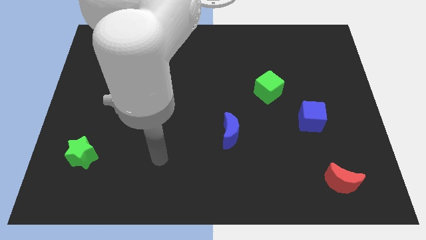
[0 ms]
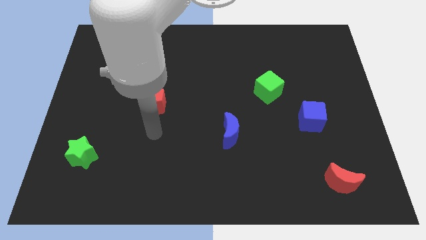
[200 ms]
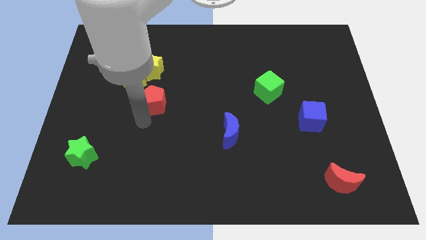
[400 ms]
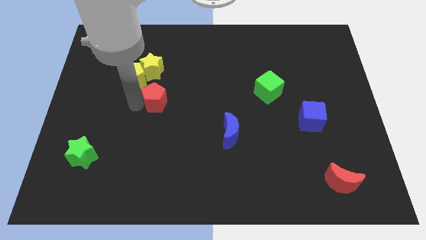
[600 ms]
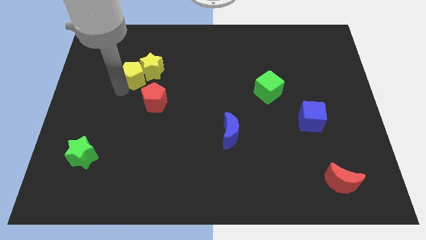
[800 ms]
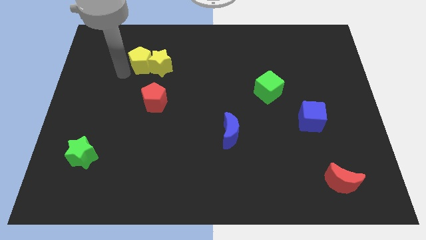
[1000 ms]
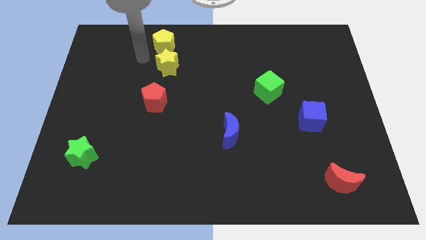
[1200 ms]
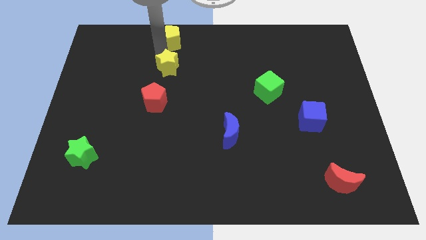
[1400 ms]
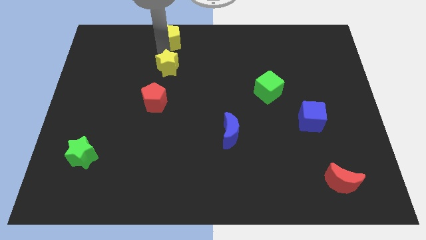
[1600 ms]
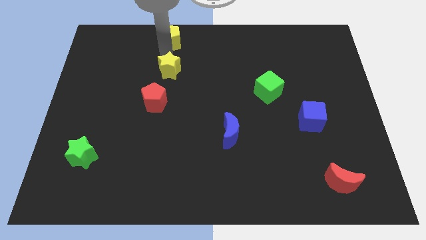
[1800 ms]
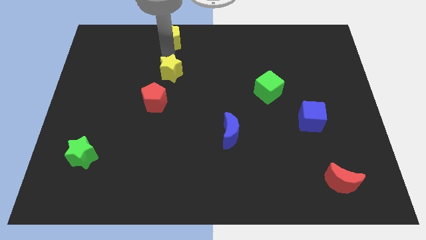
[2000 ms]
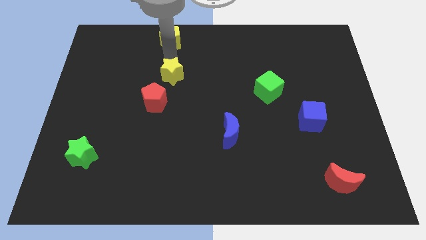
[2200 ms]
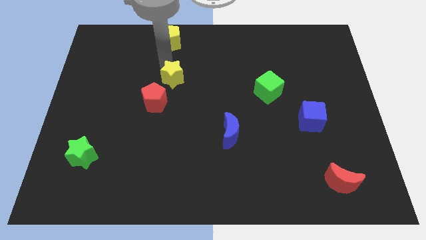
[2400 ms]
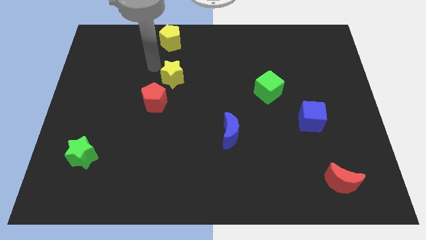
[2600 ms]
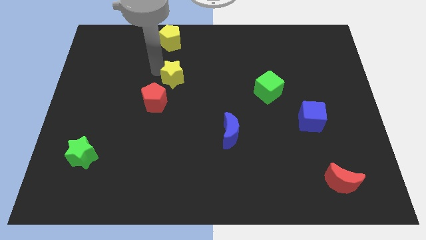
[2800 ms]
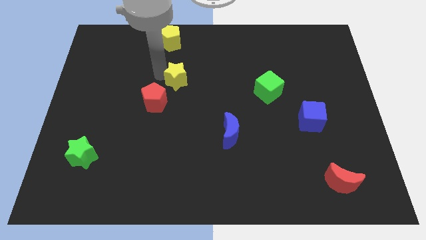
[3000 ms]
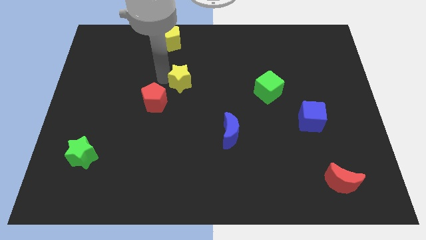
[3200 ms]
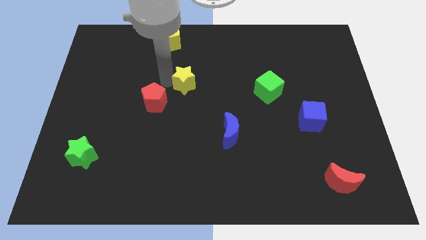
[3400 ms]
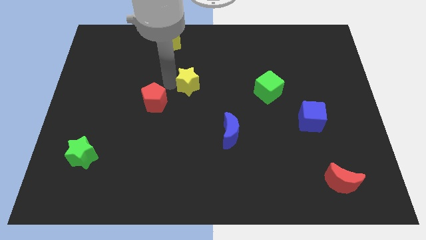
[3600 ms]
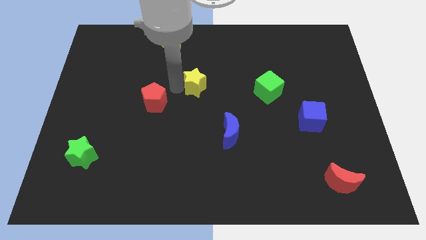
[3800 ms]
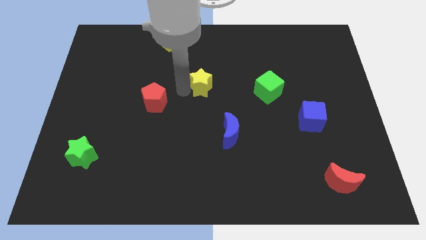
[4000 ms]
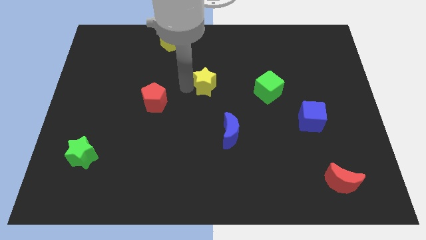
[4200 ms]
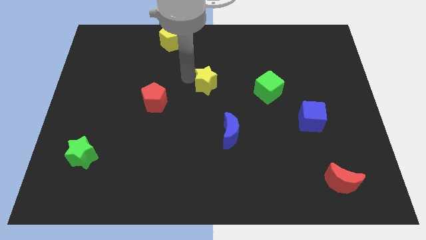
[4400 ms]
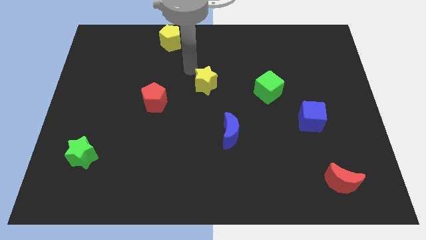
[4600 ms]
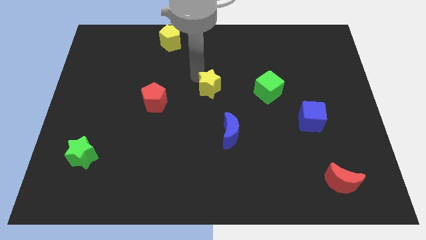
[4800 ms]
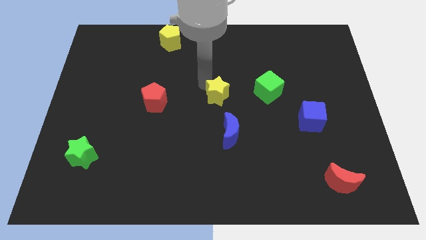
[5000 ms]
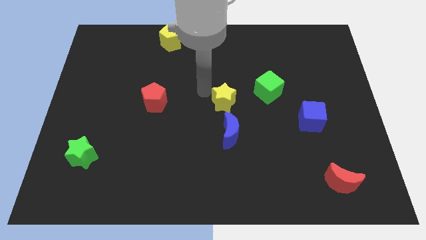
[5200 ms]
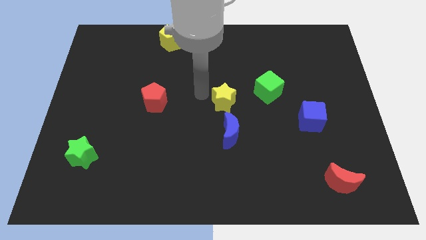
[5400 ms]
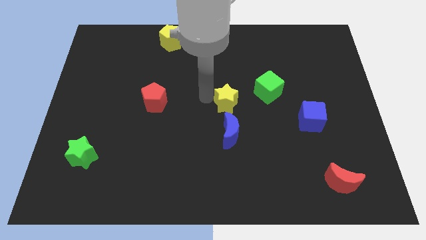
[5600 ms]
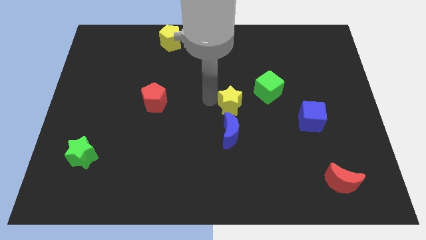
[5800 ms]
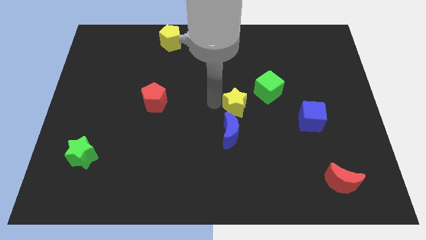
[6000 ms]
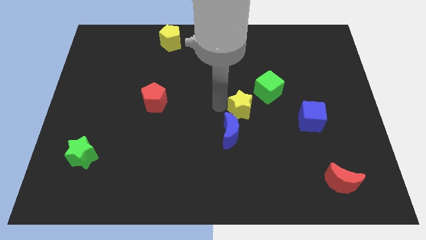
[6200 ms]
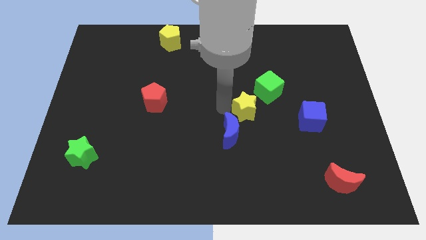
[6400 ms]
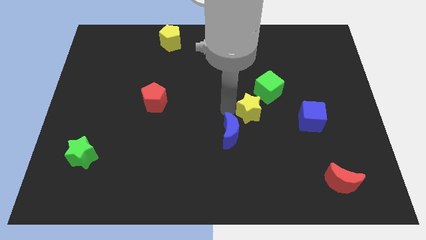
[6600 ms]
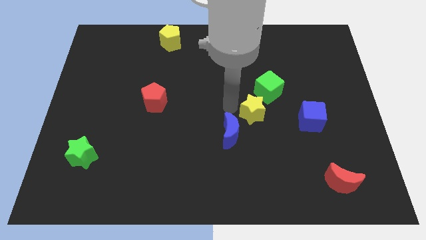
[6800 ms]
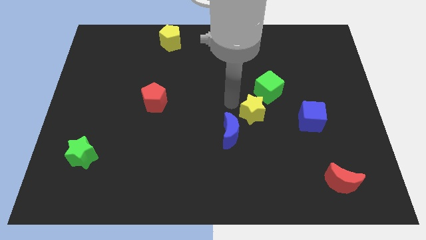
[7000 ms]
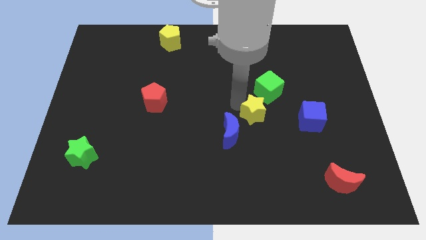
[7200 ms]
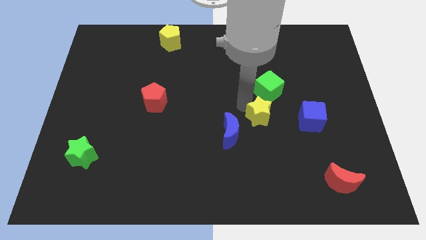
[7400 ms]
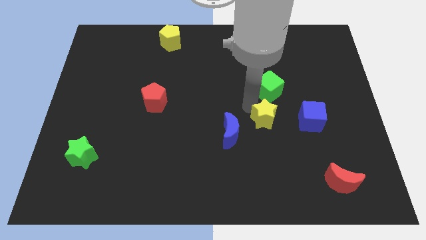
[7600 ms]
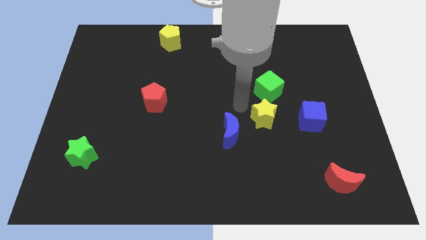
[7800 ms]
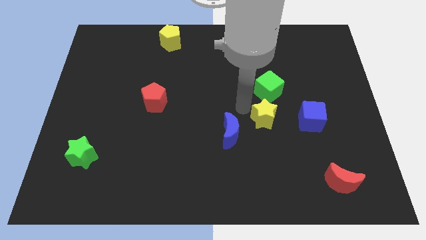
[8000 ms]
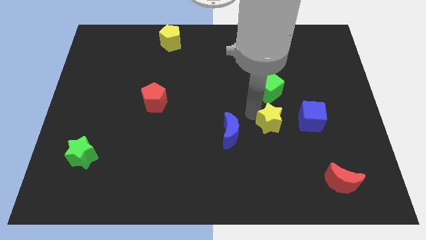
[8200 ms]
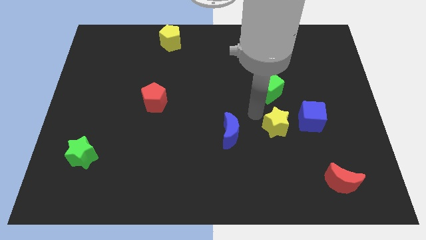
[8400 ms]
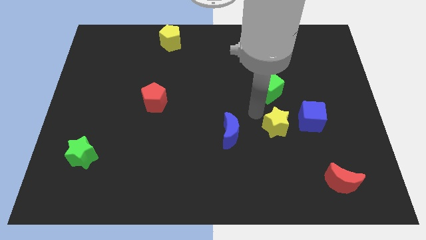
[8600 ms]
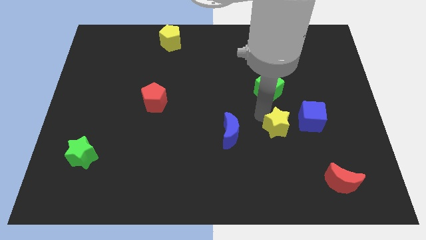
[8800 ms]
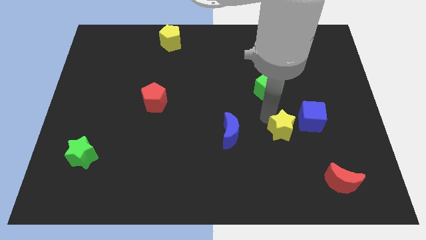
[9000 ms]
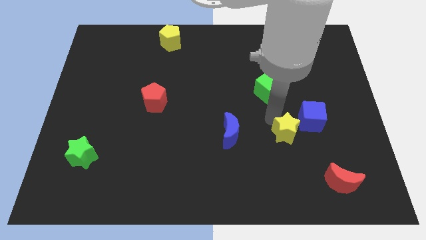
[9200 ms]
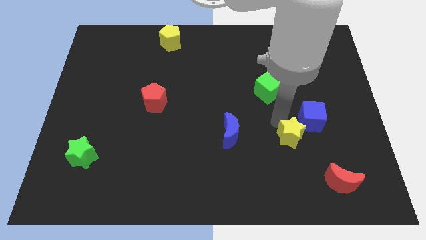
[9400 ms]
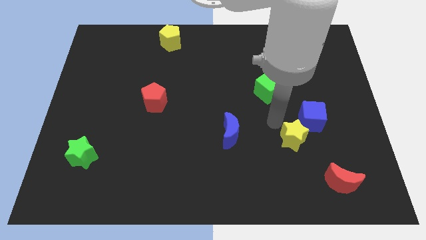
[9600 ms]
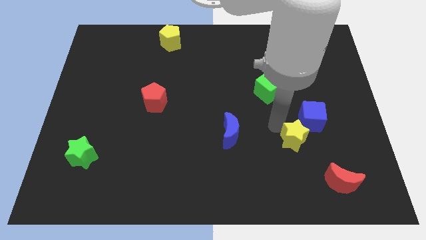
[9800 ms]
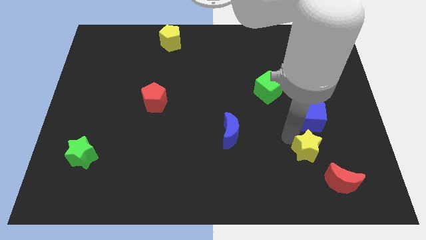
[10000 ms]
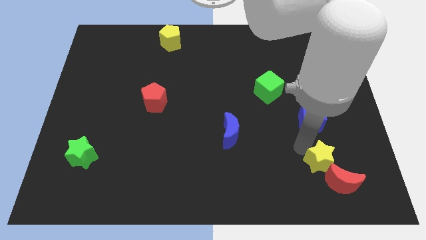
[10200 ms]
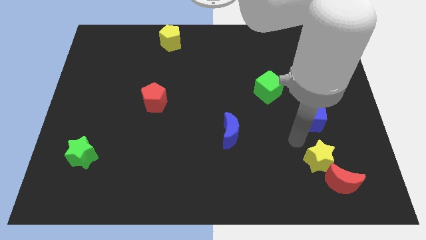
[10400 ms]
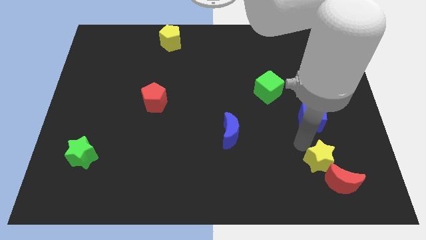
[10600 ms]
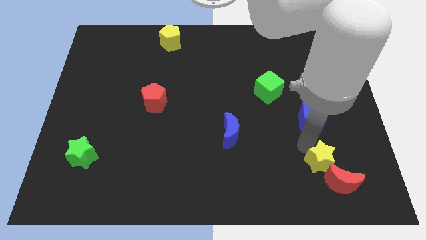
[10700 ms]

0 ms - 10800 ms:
move the yellow star to the red moon

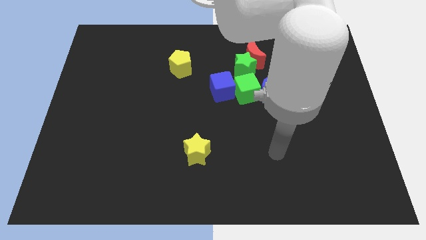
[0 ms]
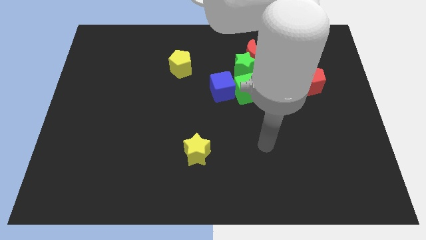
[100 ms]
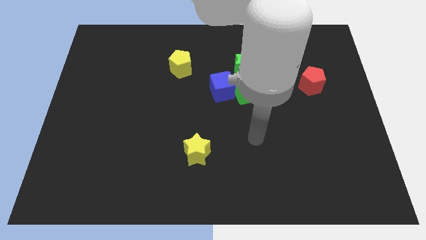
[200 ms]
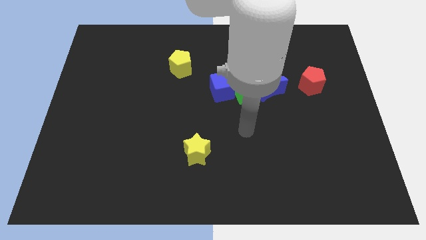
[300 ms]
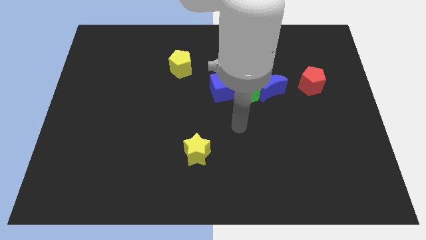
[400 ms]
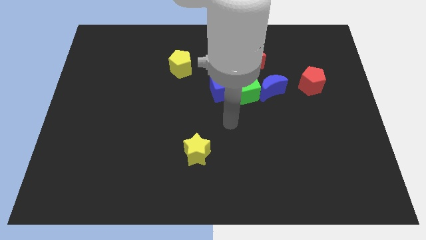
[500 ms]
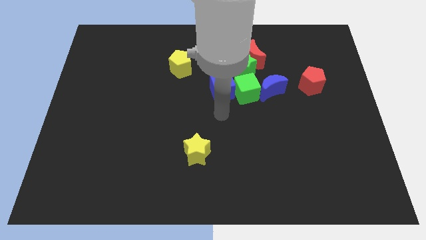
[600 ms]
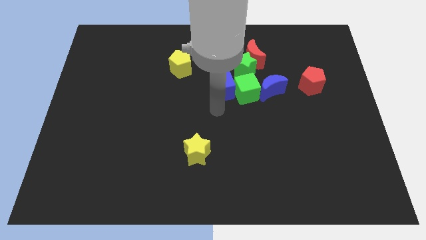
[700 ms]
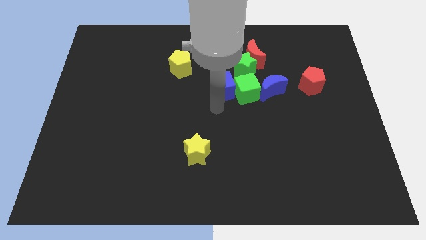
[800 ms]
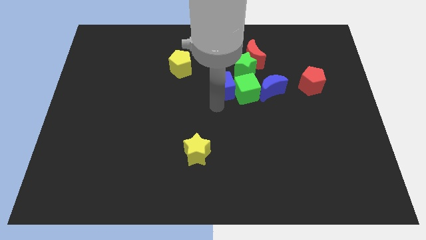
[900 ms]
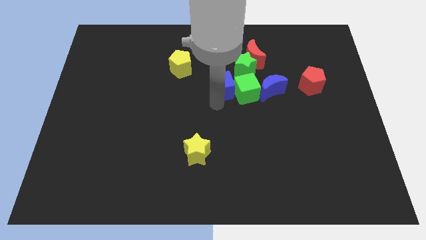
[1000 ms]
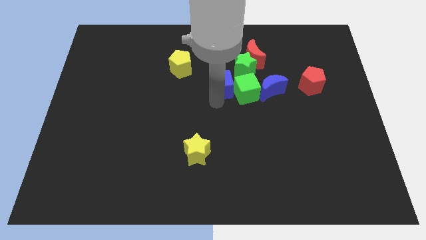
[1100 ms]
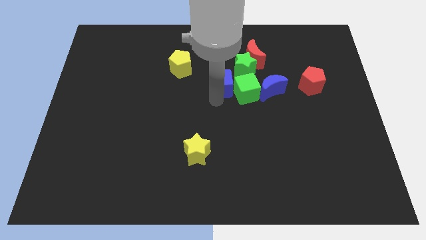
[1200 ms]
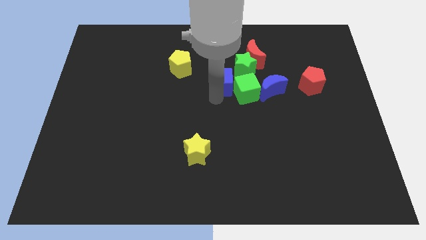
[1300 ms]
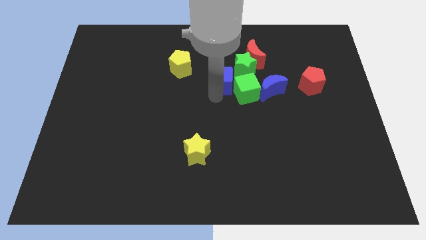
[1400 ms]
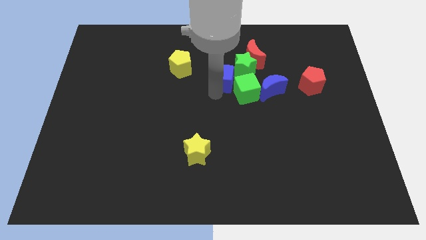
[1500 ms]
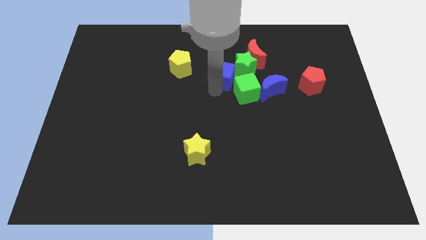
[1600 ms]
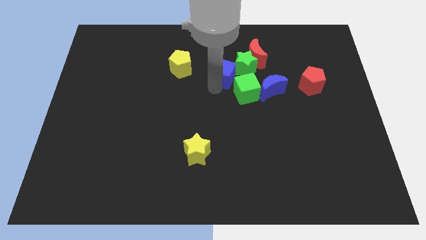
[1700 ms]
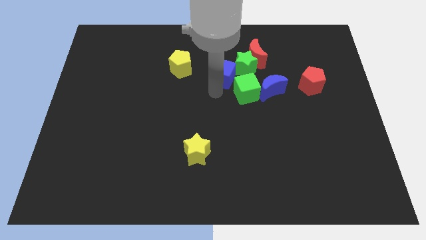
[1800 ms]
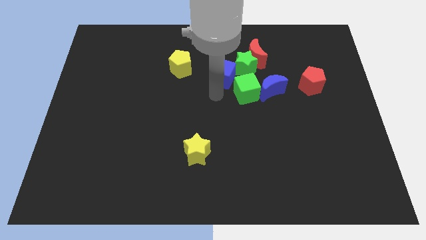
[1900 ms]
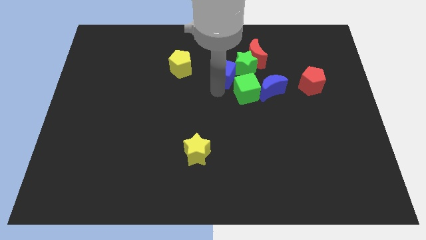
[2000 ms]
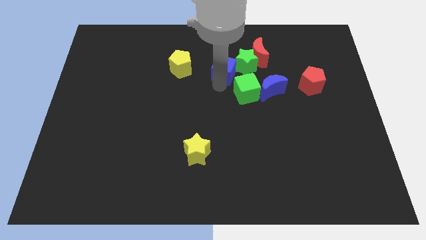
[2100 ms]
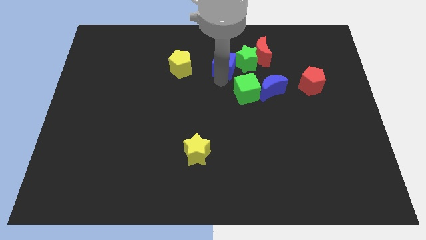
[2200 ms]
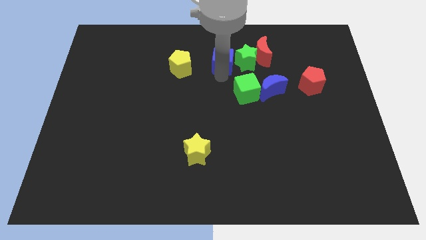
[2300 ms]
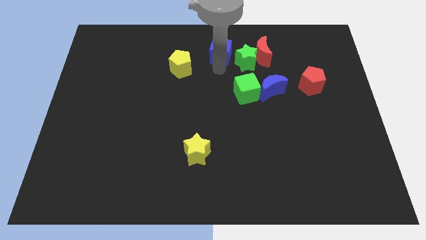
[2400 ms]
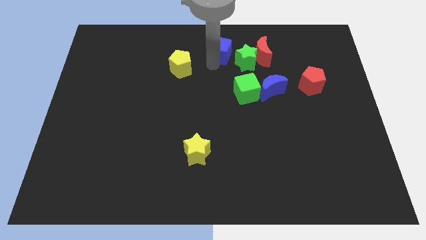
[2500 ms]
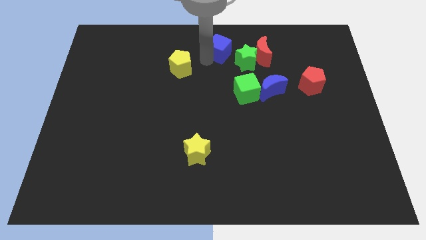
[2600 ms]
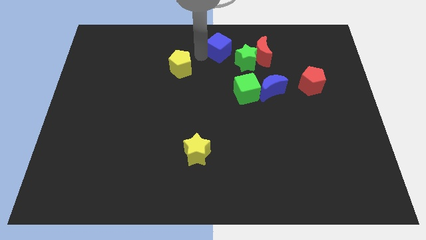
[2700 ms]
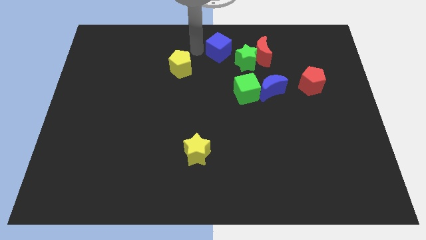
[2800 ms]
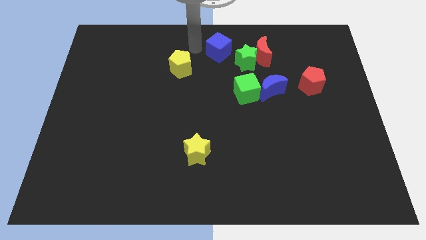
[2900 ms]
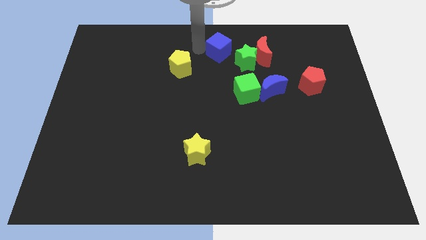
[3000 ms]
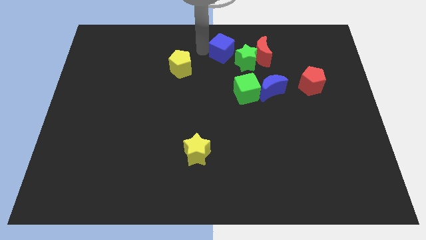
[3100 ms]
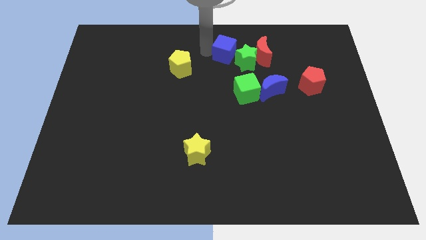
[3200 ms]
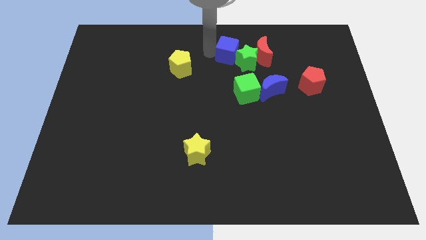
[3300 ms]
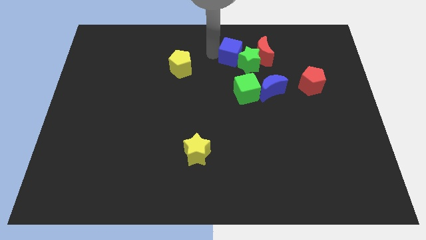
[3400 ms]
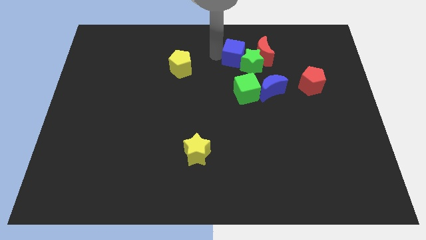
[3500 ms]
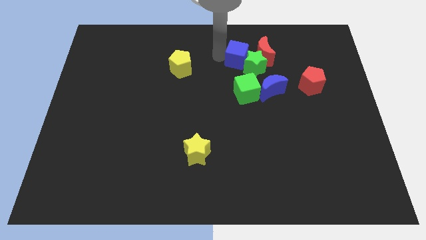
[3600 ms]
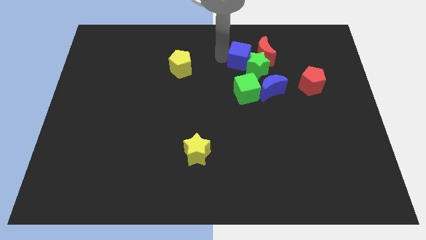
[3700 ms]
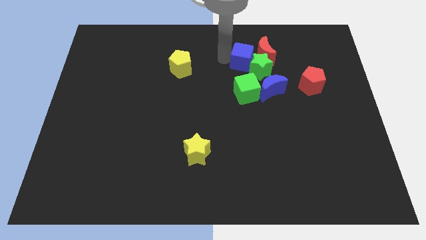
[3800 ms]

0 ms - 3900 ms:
slide the blue cube next to the red moon
